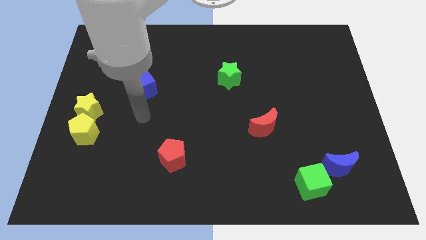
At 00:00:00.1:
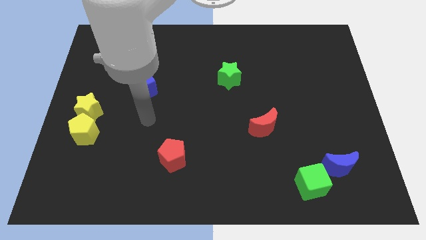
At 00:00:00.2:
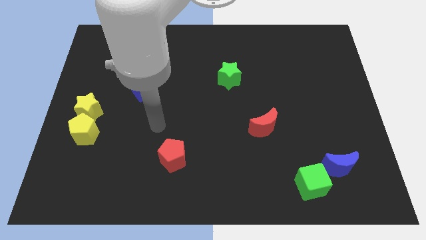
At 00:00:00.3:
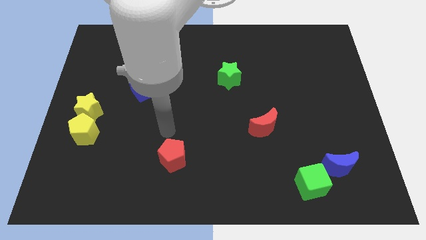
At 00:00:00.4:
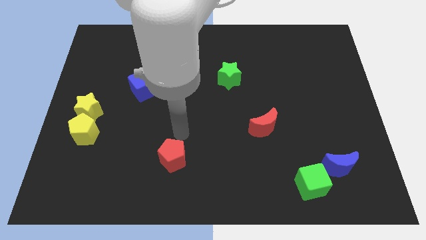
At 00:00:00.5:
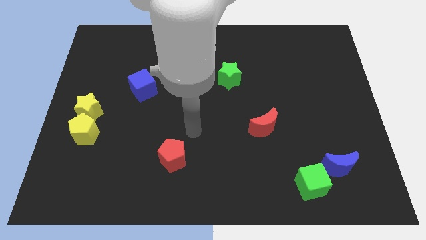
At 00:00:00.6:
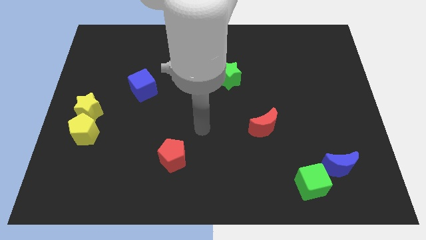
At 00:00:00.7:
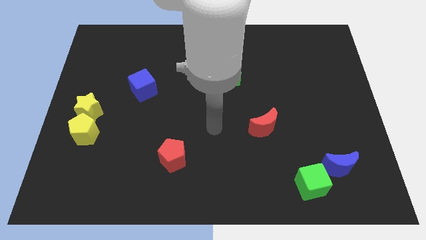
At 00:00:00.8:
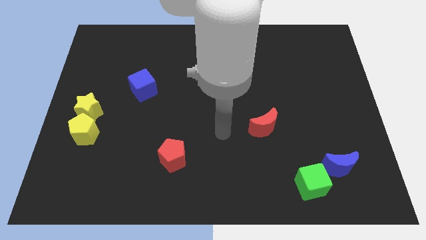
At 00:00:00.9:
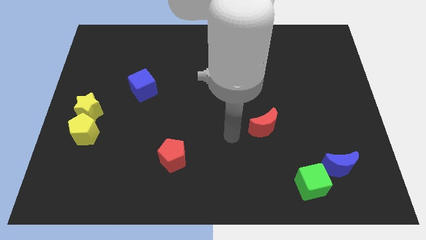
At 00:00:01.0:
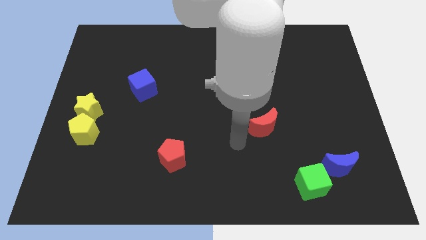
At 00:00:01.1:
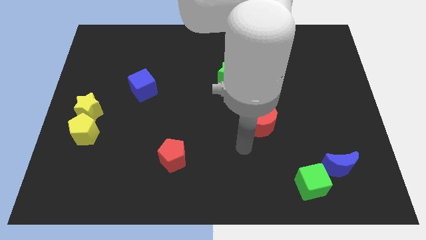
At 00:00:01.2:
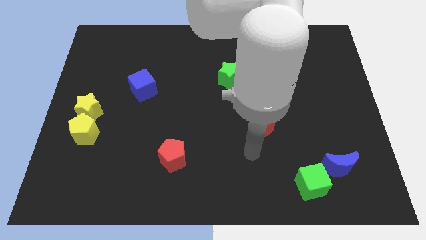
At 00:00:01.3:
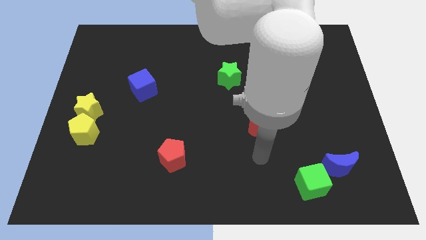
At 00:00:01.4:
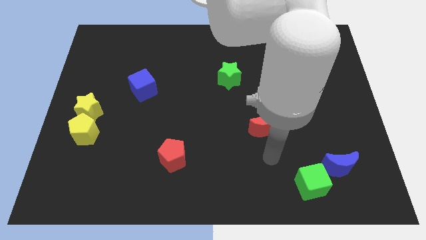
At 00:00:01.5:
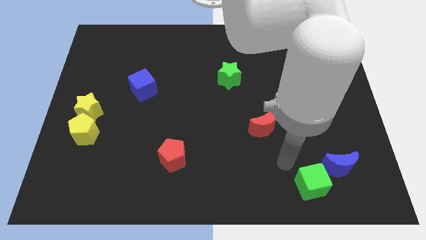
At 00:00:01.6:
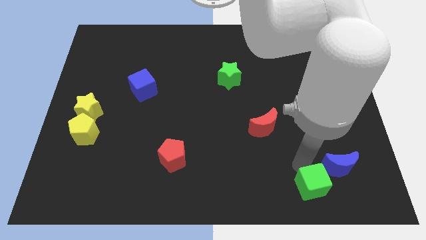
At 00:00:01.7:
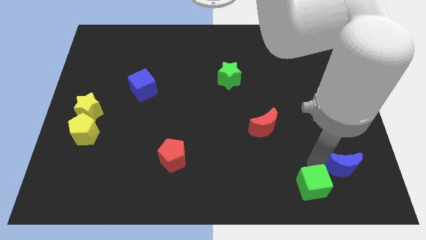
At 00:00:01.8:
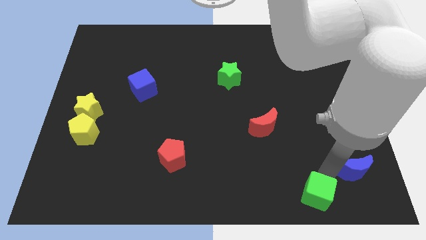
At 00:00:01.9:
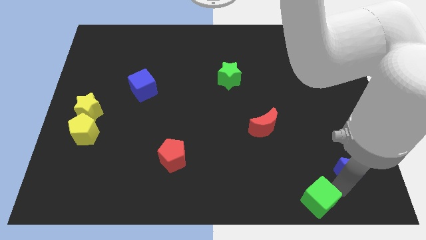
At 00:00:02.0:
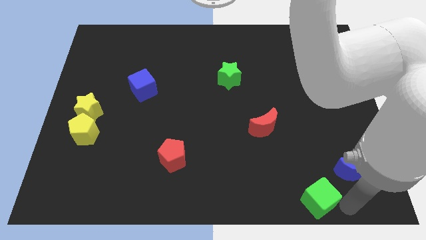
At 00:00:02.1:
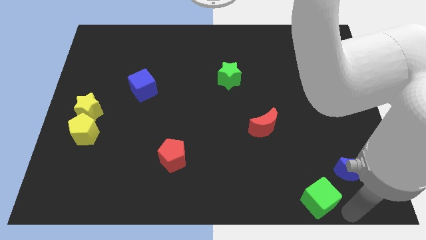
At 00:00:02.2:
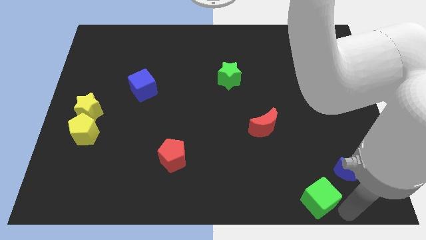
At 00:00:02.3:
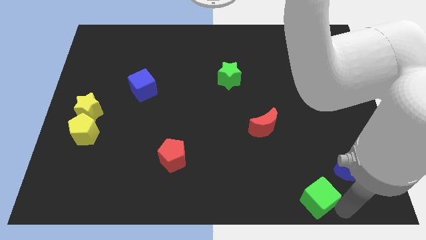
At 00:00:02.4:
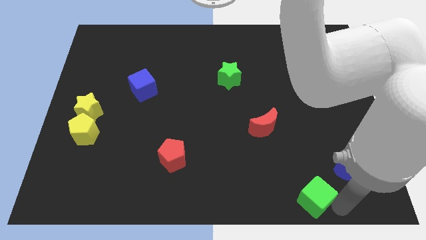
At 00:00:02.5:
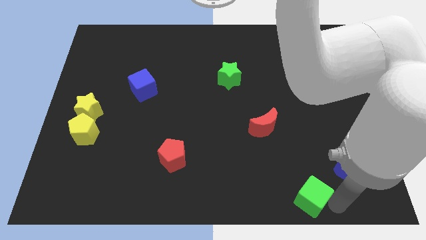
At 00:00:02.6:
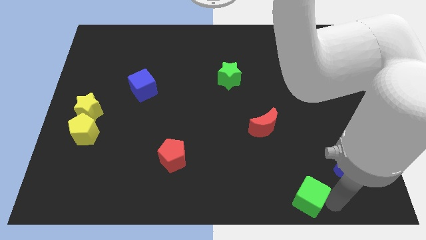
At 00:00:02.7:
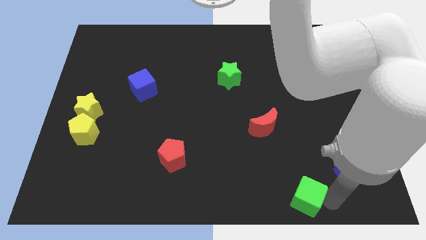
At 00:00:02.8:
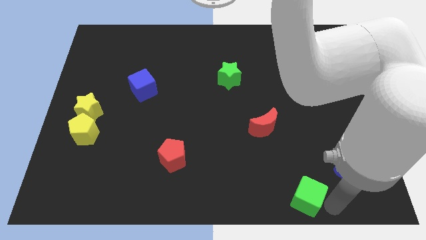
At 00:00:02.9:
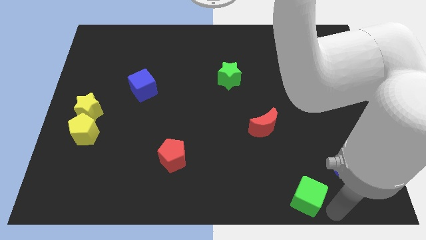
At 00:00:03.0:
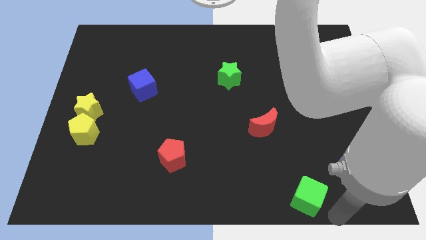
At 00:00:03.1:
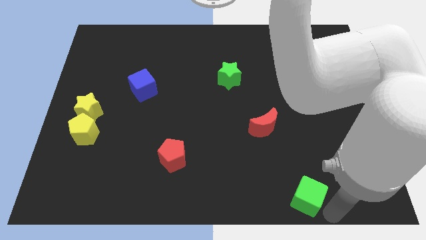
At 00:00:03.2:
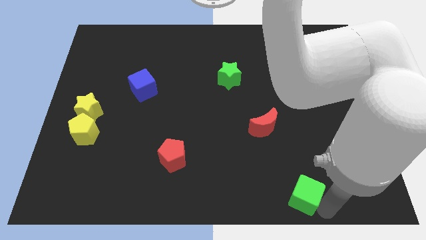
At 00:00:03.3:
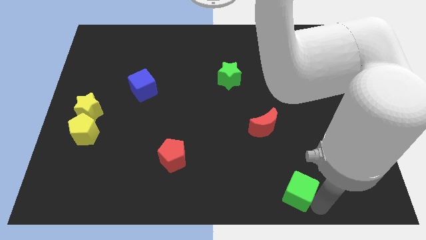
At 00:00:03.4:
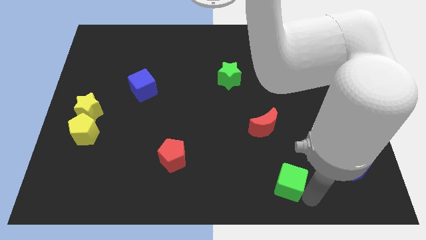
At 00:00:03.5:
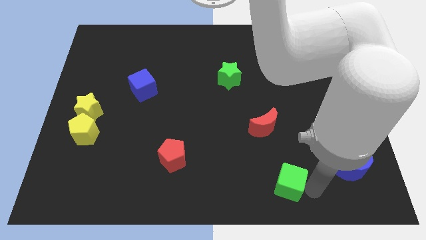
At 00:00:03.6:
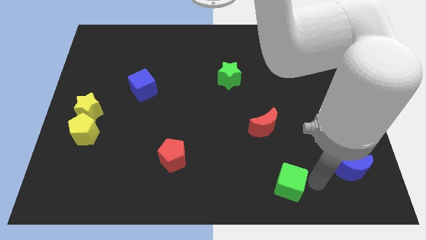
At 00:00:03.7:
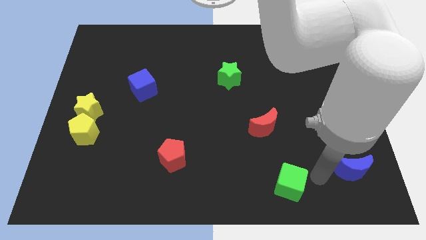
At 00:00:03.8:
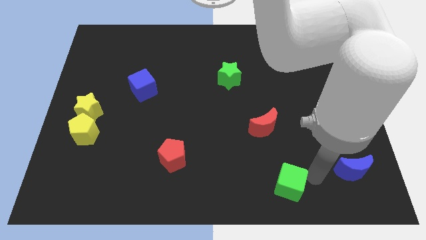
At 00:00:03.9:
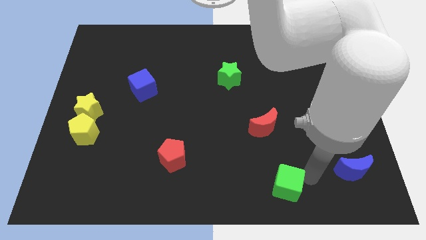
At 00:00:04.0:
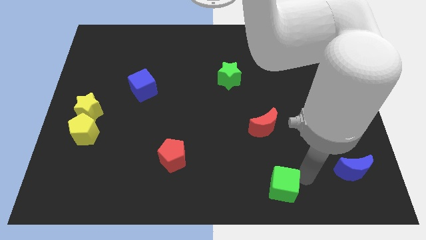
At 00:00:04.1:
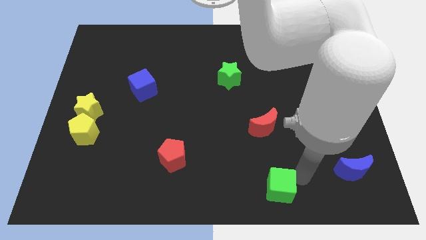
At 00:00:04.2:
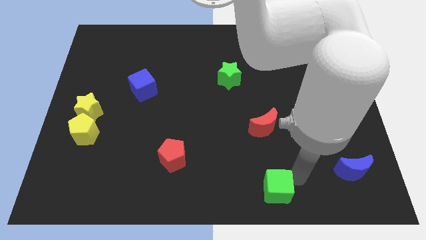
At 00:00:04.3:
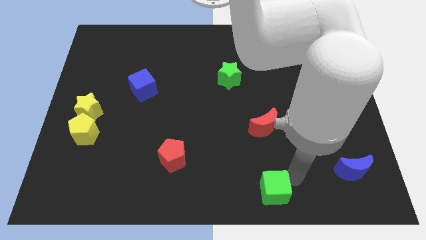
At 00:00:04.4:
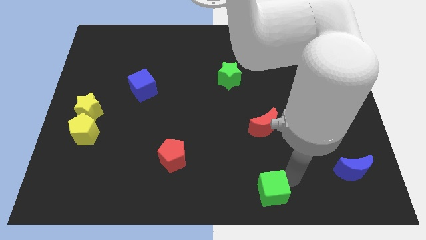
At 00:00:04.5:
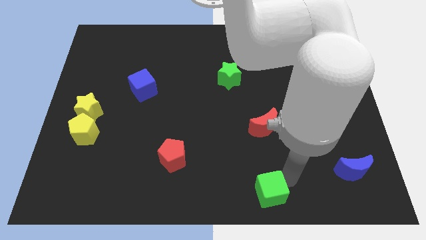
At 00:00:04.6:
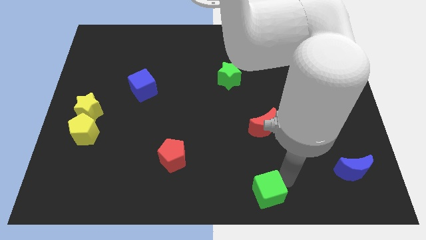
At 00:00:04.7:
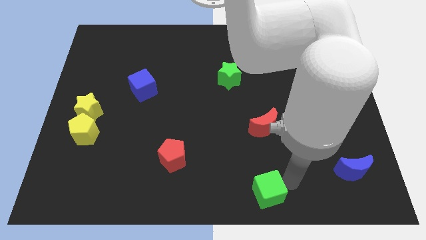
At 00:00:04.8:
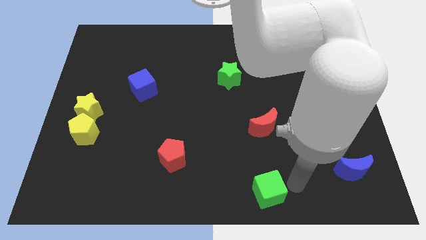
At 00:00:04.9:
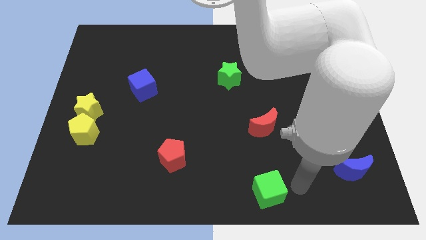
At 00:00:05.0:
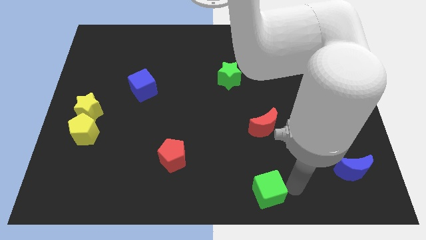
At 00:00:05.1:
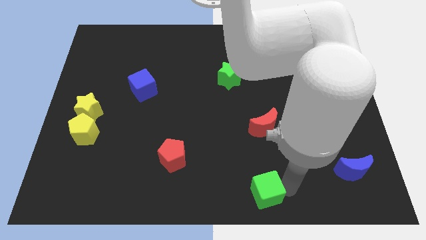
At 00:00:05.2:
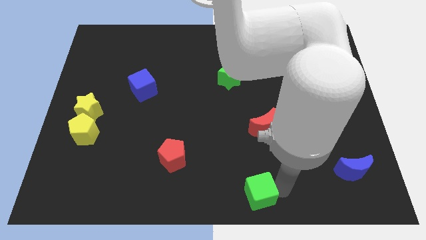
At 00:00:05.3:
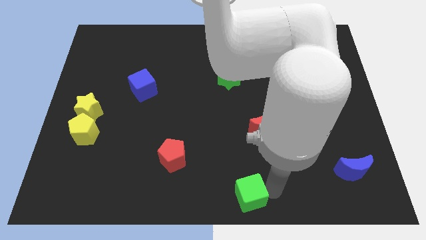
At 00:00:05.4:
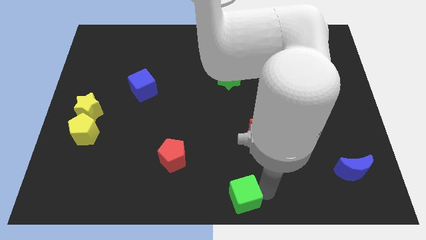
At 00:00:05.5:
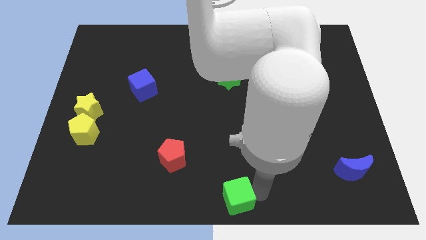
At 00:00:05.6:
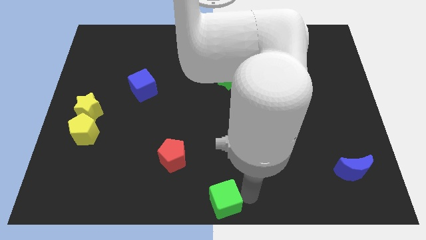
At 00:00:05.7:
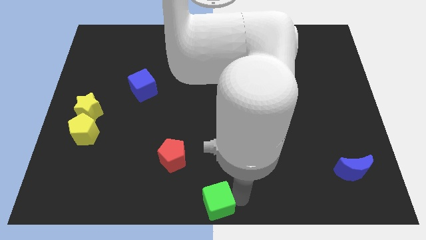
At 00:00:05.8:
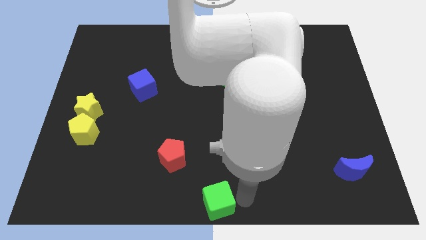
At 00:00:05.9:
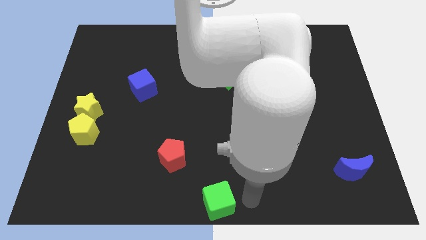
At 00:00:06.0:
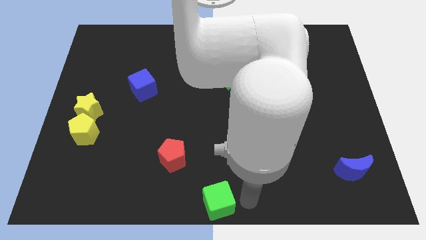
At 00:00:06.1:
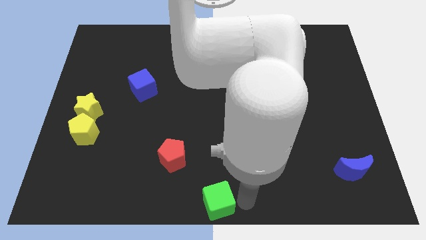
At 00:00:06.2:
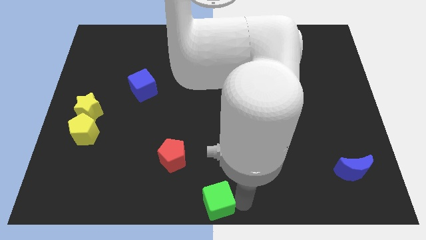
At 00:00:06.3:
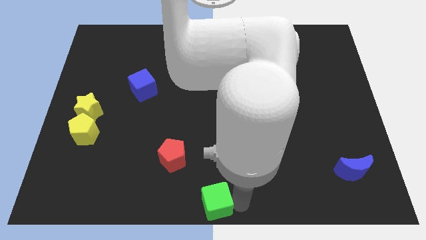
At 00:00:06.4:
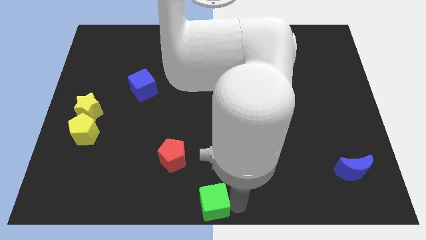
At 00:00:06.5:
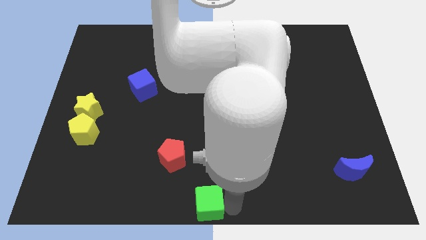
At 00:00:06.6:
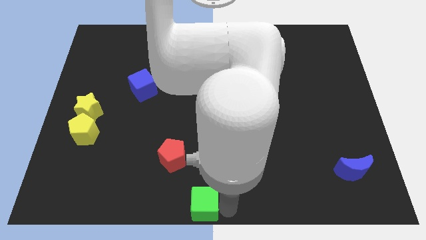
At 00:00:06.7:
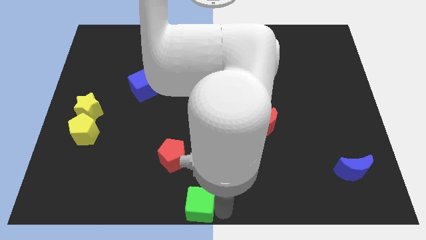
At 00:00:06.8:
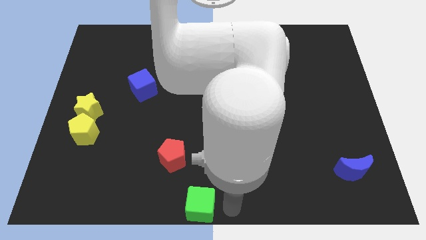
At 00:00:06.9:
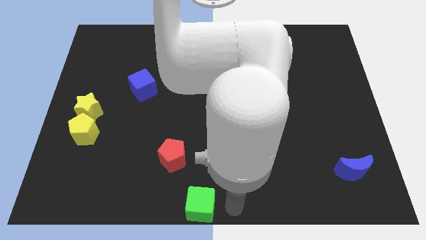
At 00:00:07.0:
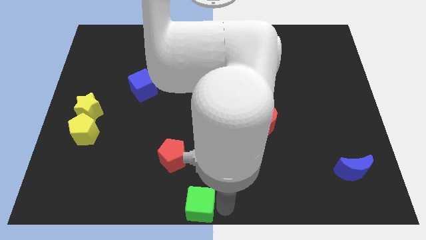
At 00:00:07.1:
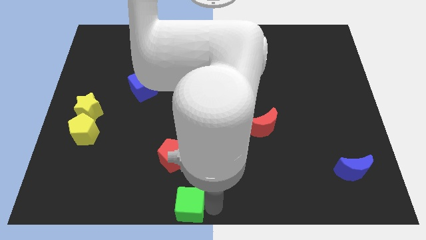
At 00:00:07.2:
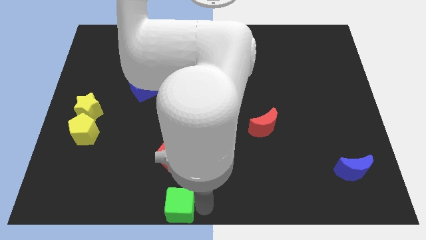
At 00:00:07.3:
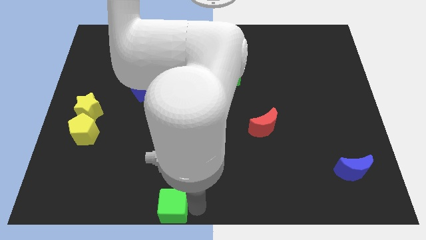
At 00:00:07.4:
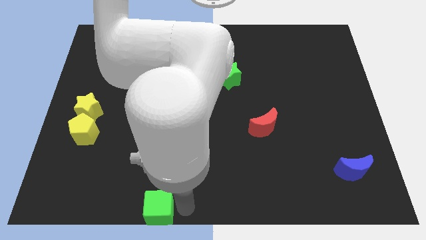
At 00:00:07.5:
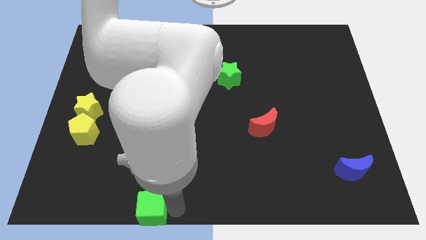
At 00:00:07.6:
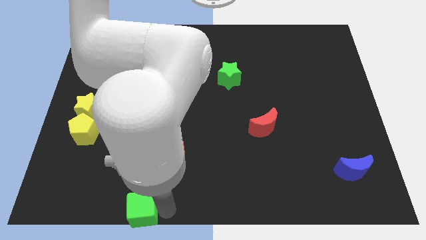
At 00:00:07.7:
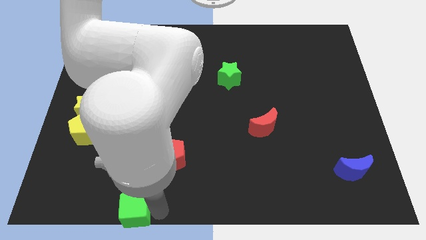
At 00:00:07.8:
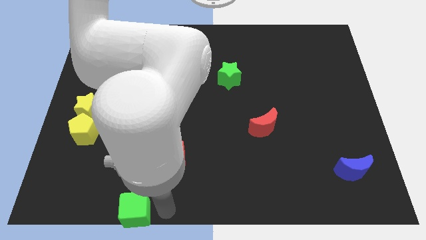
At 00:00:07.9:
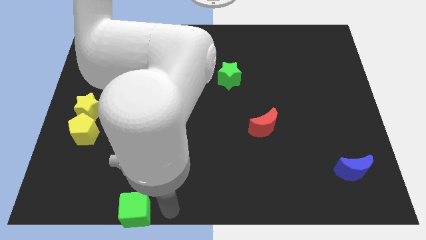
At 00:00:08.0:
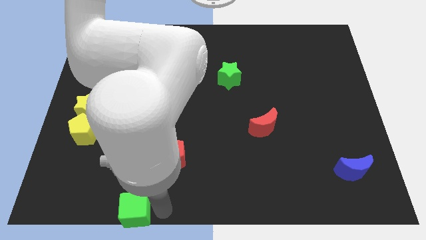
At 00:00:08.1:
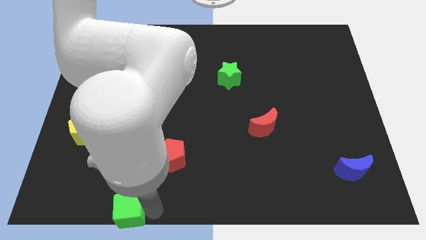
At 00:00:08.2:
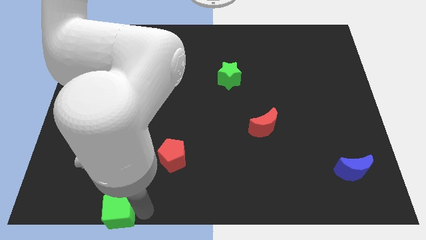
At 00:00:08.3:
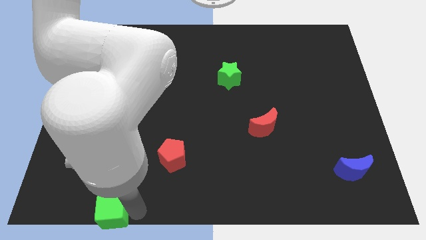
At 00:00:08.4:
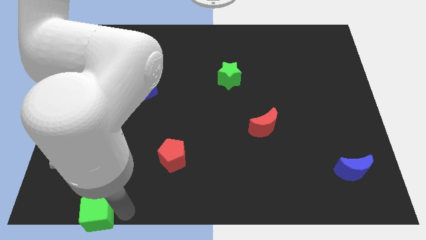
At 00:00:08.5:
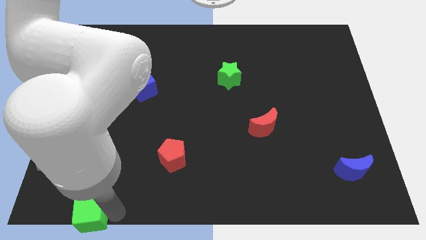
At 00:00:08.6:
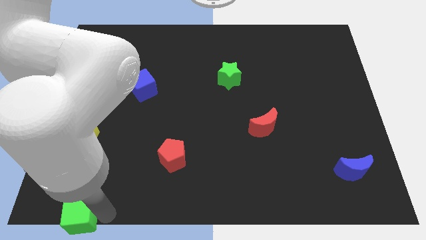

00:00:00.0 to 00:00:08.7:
slide the green cube to the bottom left of the board
